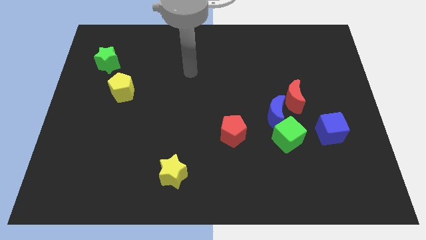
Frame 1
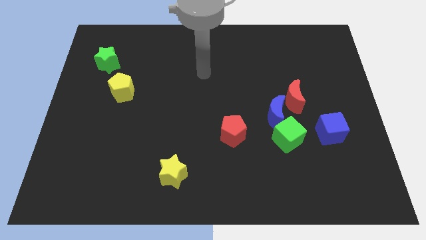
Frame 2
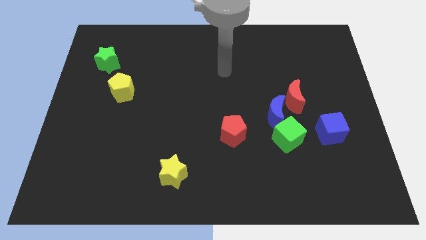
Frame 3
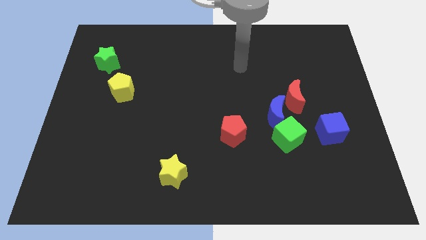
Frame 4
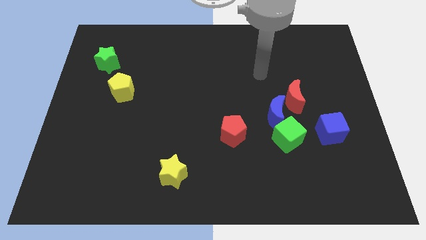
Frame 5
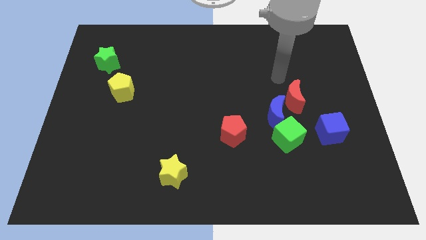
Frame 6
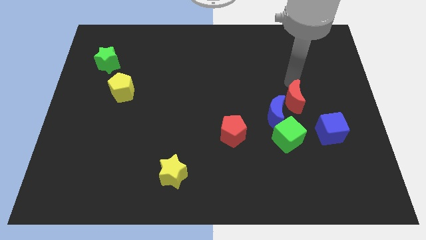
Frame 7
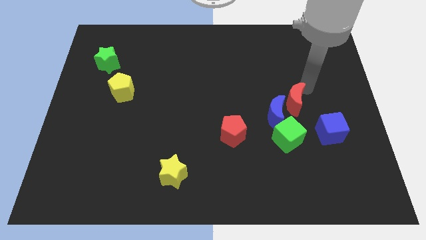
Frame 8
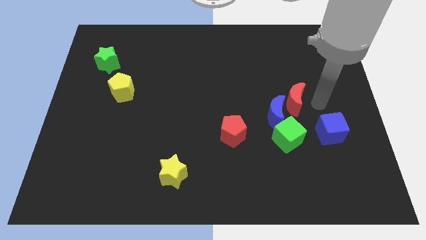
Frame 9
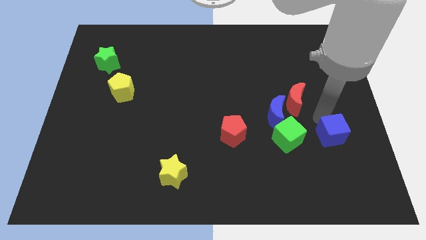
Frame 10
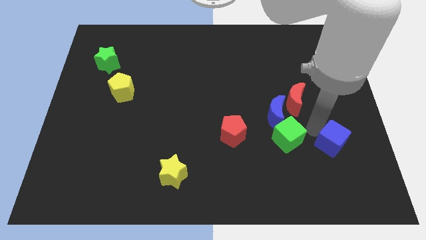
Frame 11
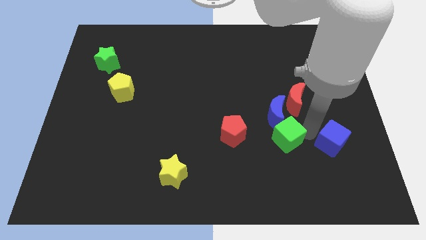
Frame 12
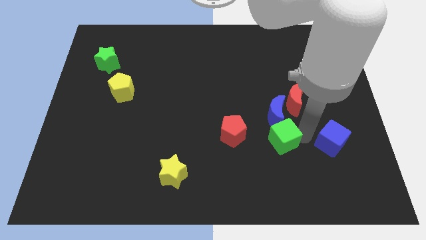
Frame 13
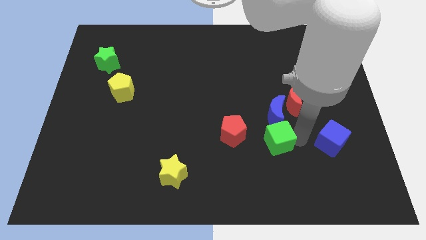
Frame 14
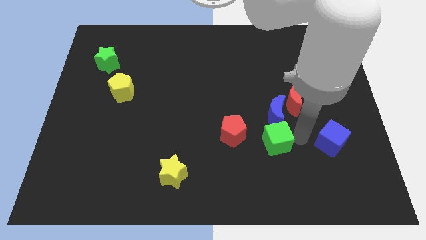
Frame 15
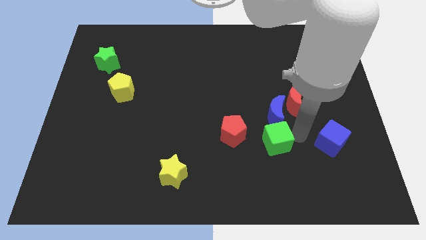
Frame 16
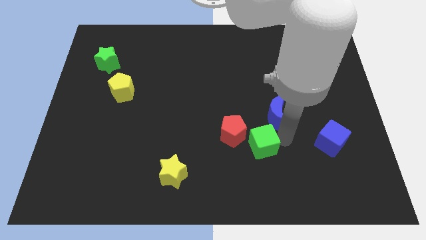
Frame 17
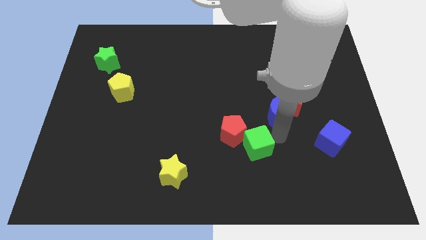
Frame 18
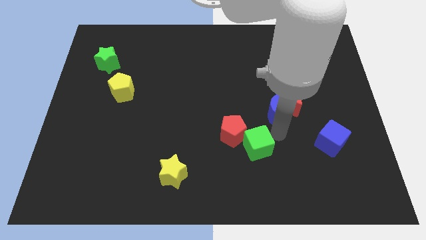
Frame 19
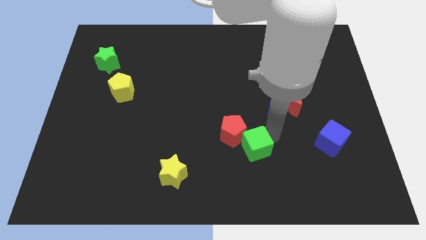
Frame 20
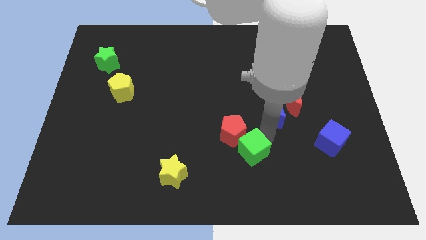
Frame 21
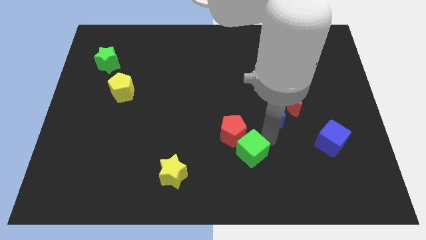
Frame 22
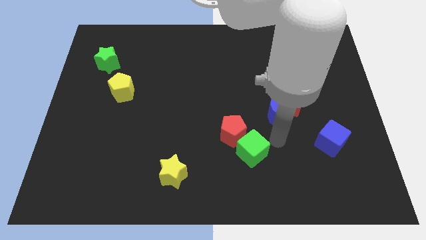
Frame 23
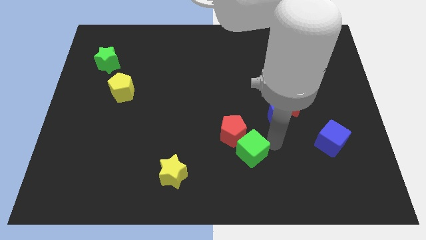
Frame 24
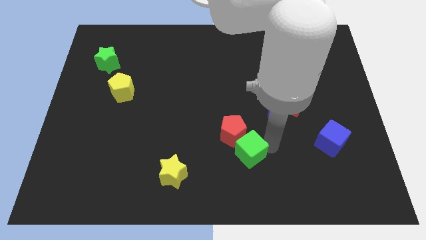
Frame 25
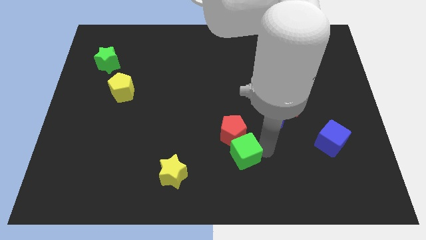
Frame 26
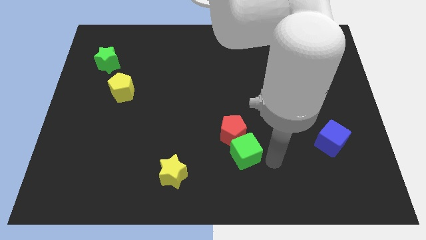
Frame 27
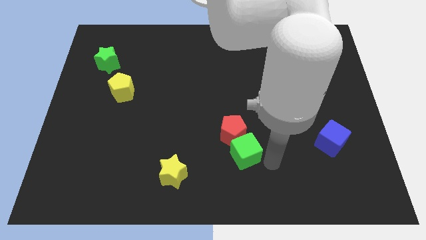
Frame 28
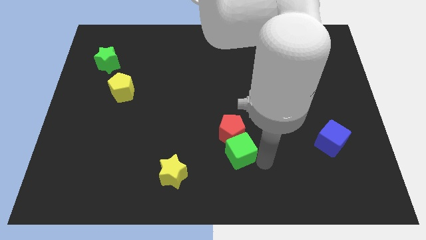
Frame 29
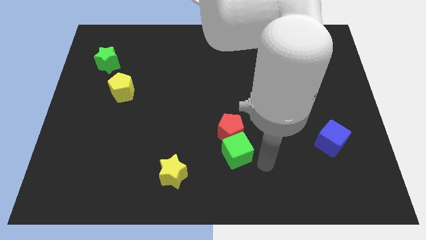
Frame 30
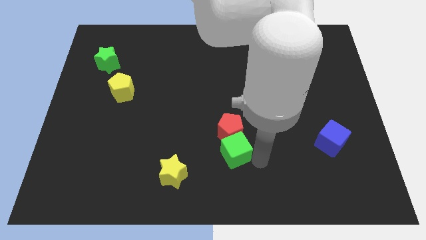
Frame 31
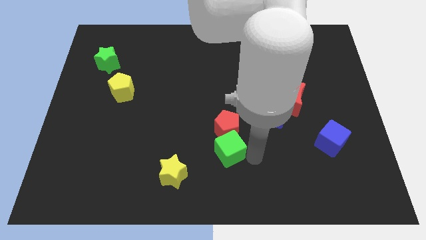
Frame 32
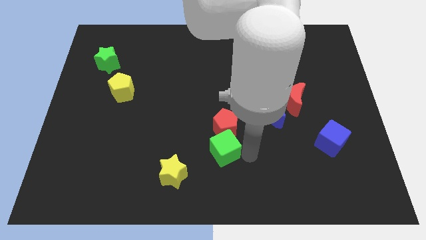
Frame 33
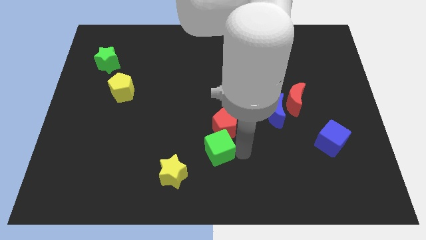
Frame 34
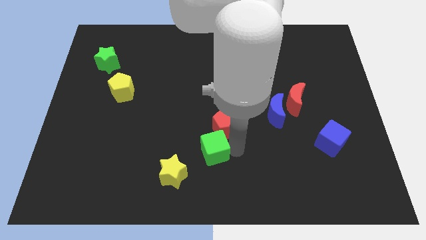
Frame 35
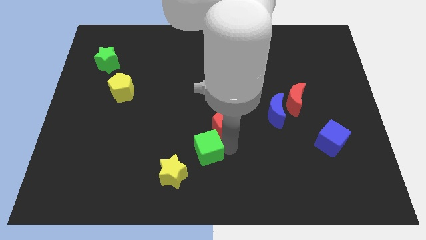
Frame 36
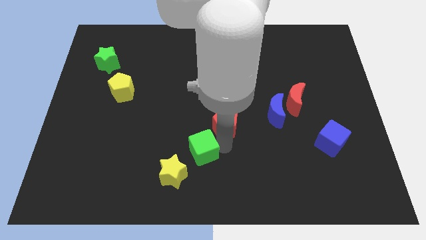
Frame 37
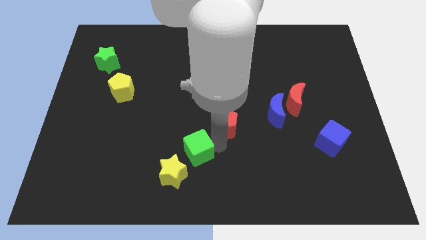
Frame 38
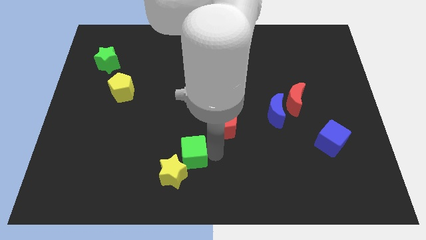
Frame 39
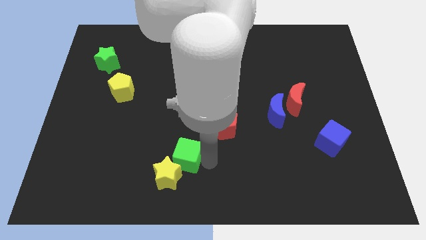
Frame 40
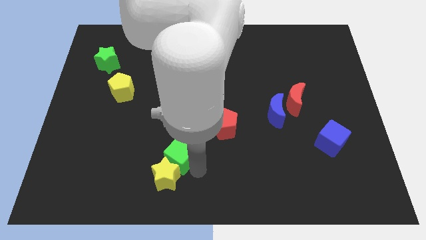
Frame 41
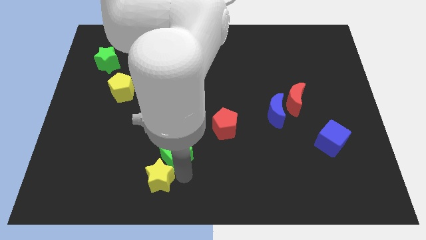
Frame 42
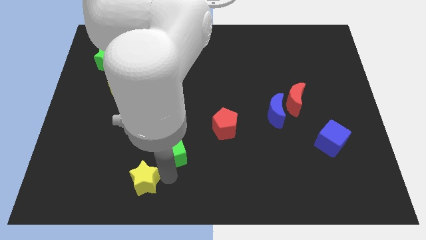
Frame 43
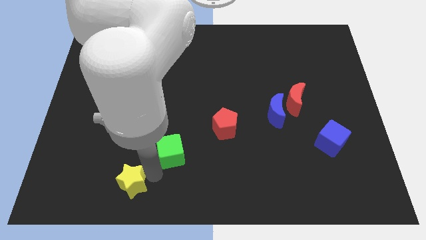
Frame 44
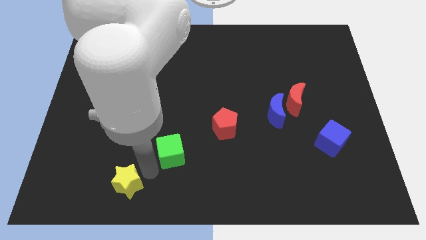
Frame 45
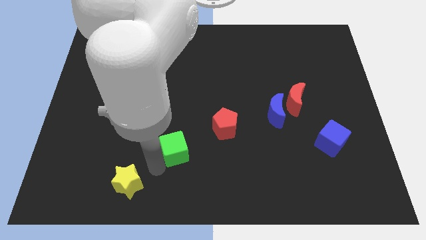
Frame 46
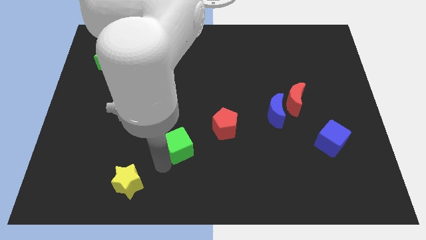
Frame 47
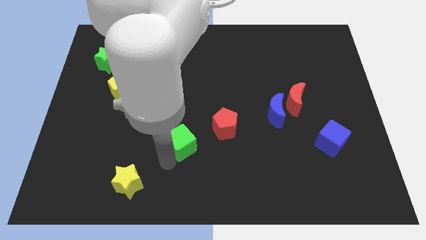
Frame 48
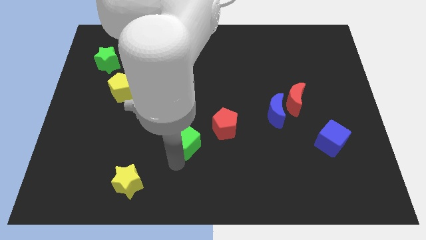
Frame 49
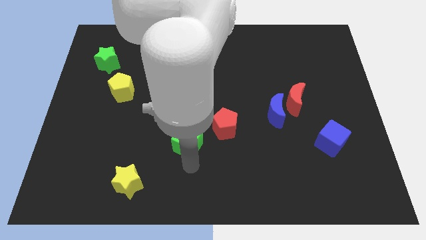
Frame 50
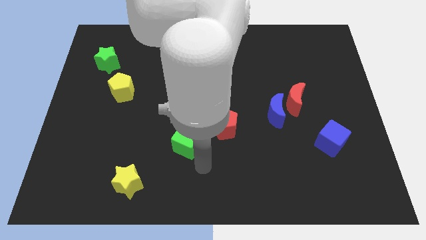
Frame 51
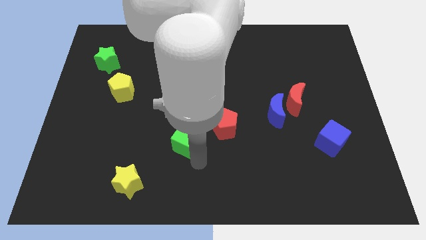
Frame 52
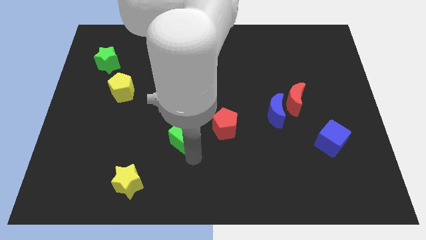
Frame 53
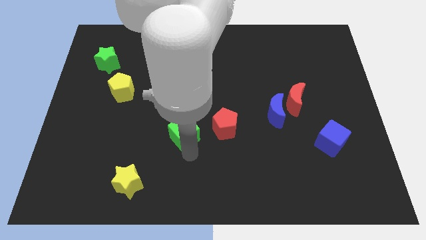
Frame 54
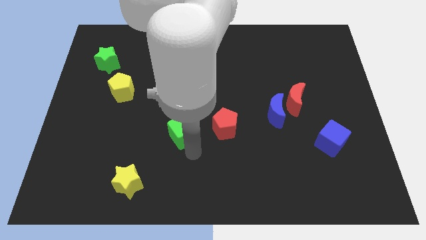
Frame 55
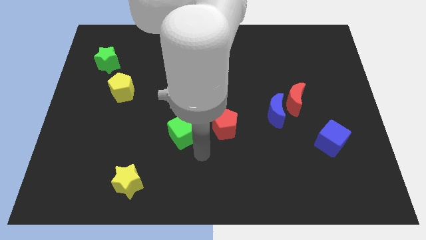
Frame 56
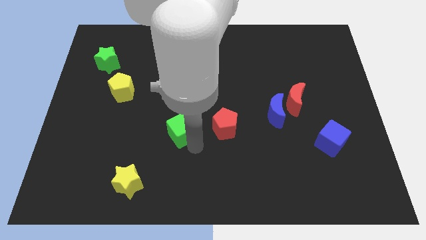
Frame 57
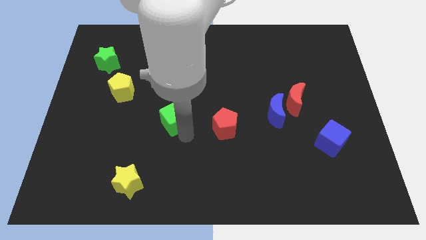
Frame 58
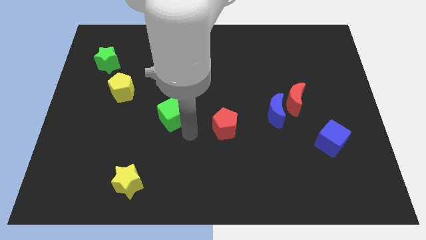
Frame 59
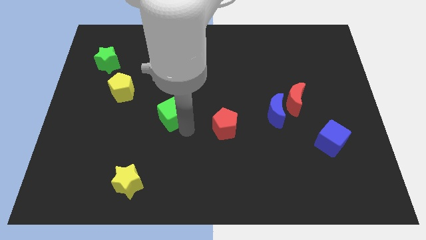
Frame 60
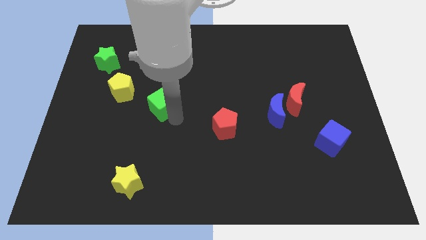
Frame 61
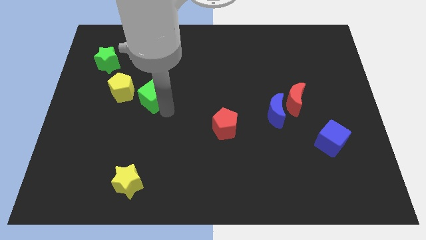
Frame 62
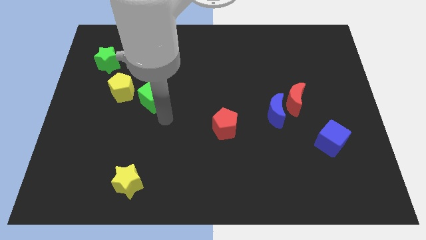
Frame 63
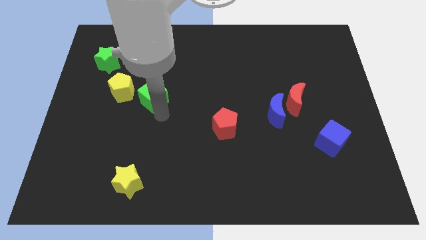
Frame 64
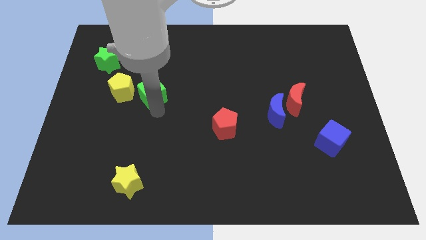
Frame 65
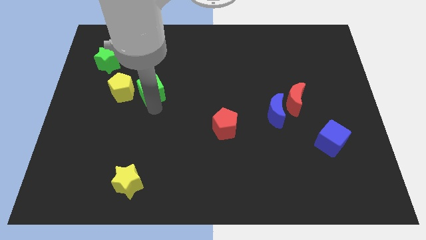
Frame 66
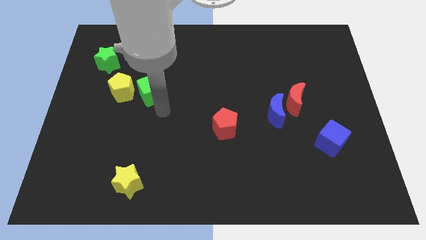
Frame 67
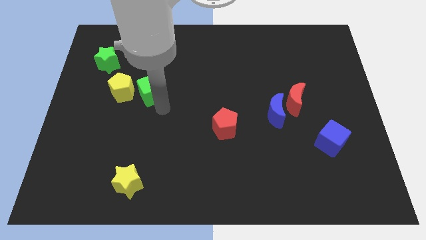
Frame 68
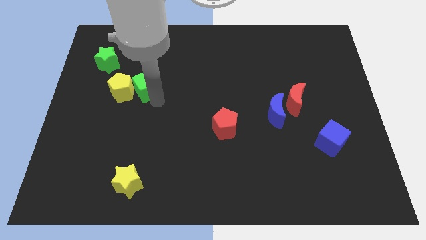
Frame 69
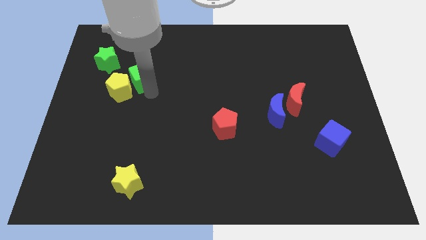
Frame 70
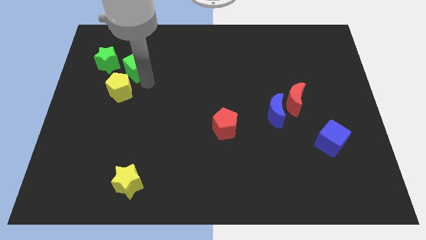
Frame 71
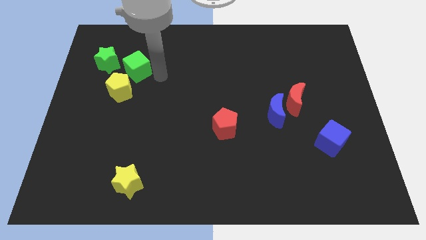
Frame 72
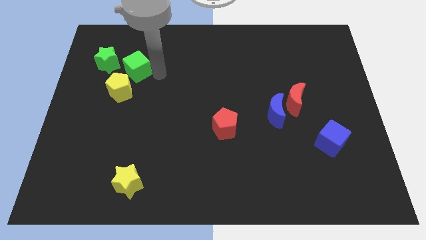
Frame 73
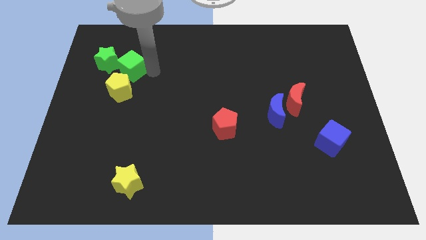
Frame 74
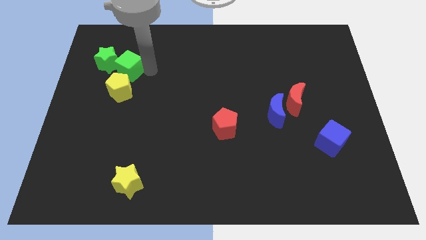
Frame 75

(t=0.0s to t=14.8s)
put the green cube close to the green star

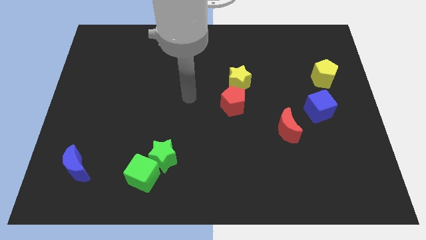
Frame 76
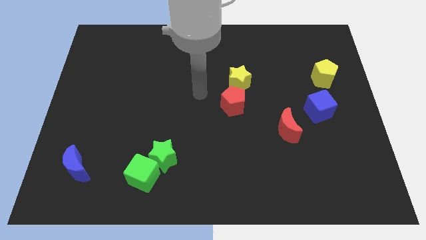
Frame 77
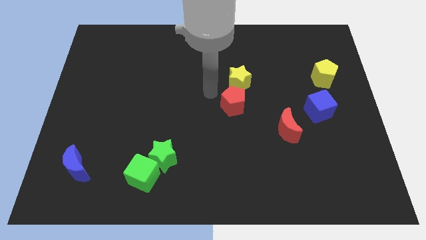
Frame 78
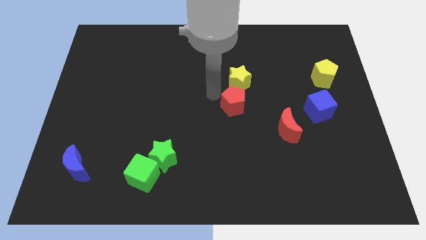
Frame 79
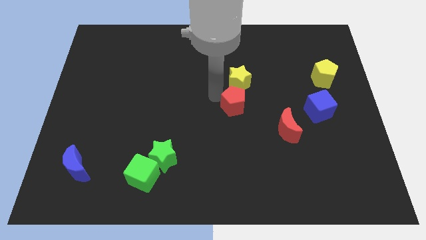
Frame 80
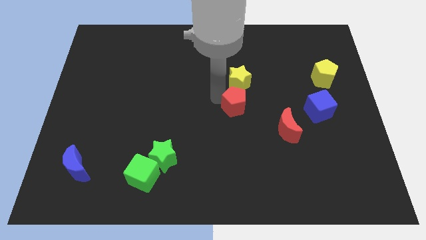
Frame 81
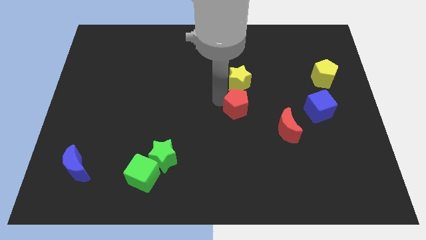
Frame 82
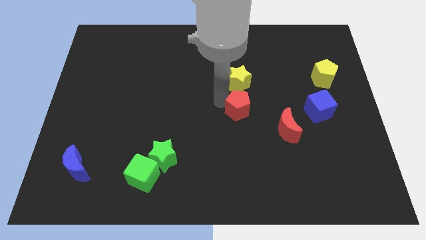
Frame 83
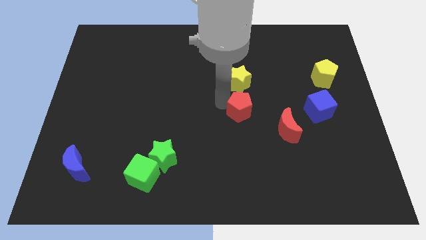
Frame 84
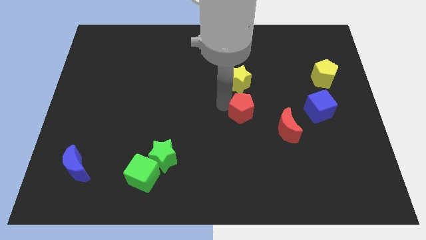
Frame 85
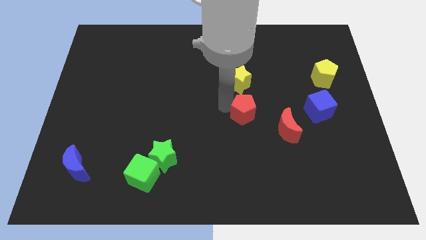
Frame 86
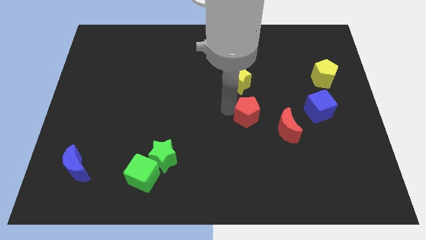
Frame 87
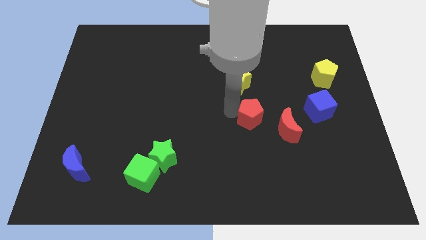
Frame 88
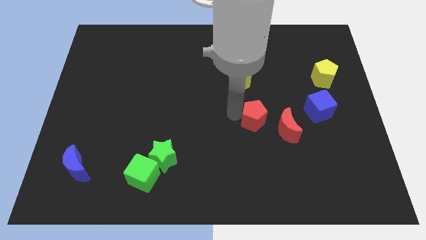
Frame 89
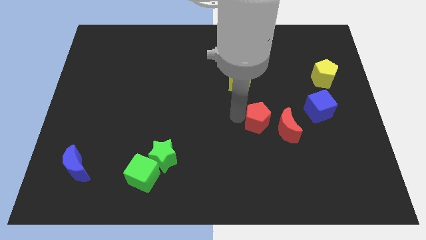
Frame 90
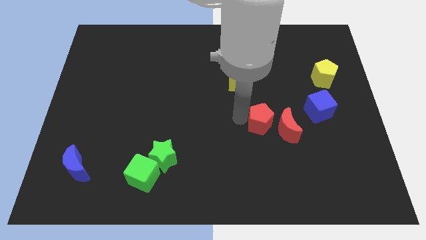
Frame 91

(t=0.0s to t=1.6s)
put the red pentagon towards the red moon
